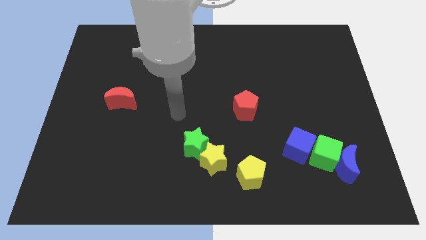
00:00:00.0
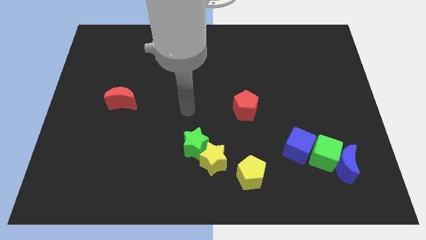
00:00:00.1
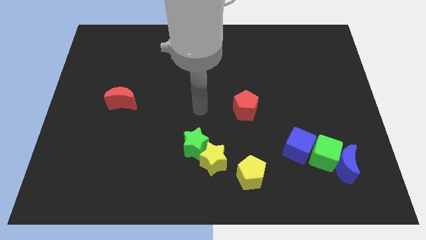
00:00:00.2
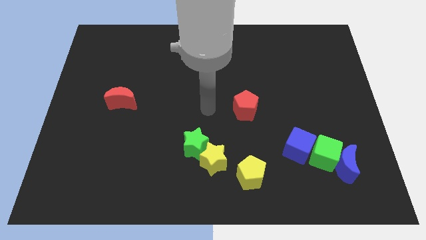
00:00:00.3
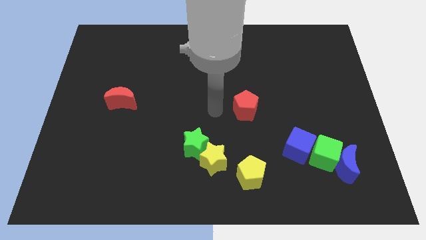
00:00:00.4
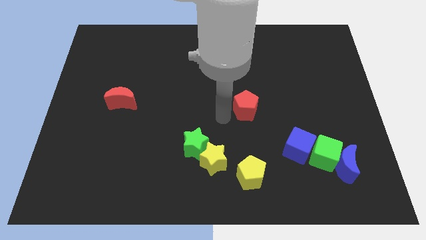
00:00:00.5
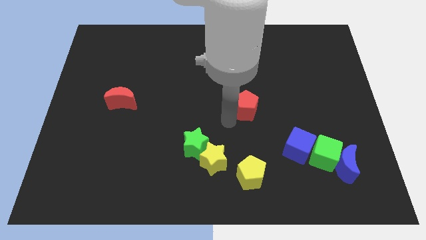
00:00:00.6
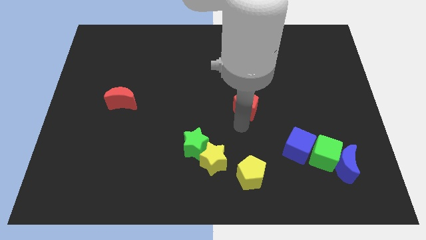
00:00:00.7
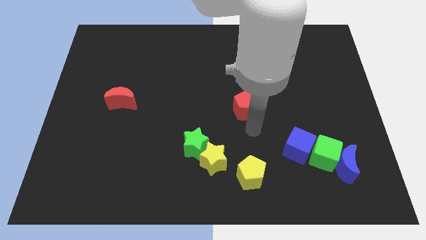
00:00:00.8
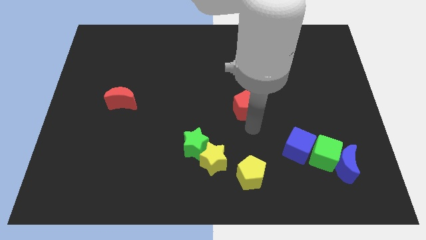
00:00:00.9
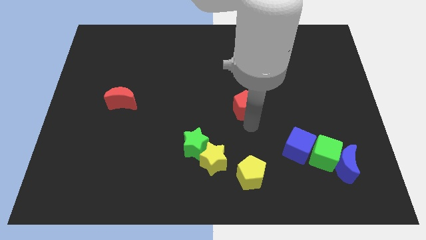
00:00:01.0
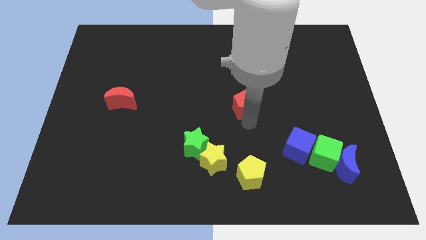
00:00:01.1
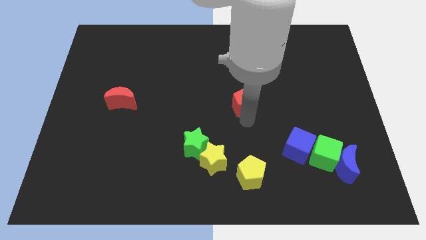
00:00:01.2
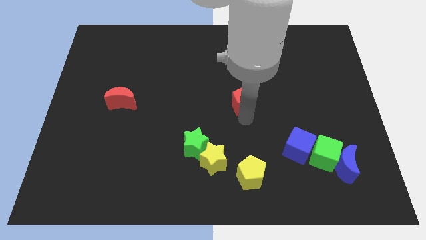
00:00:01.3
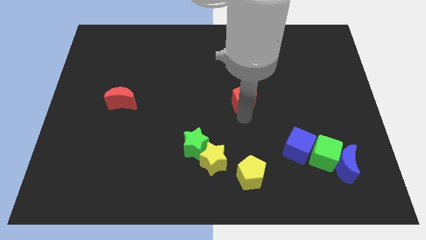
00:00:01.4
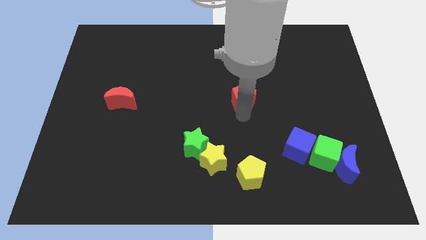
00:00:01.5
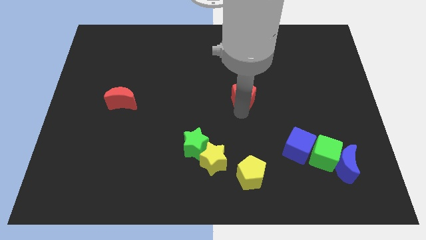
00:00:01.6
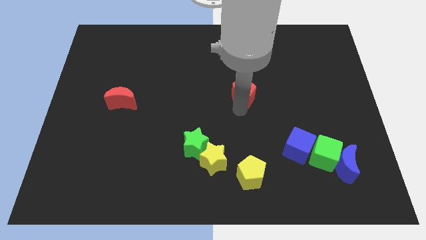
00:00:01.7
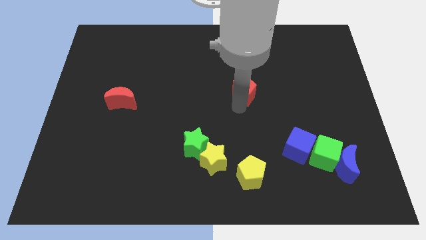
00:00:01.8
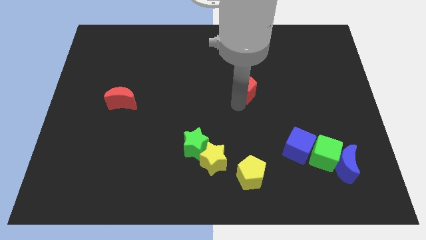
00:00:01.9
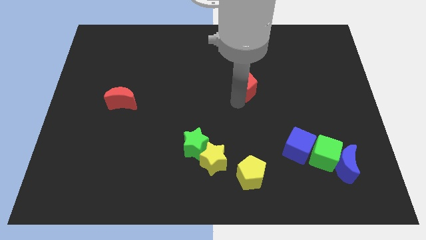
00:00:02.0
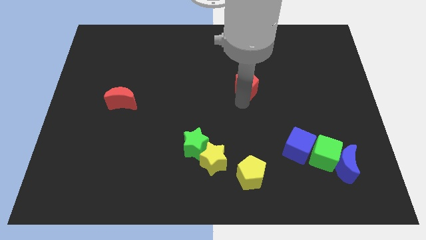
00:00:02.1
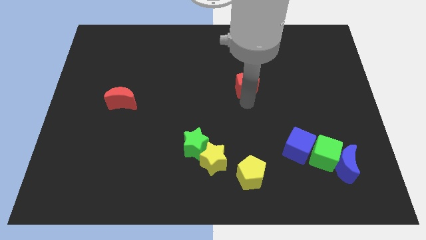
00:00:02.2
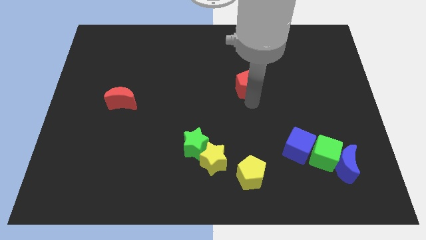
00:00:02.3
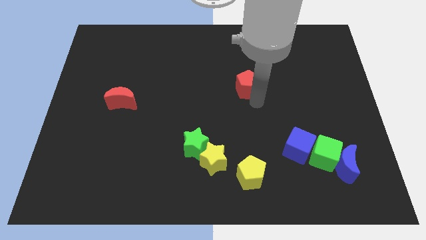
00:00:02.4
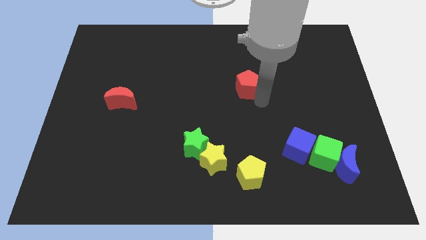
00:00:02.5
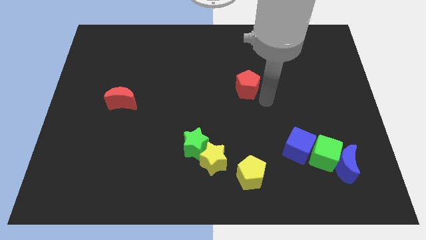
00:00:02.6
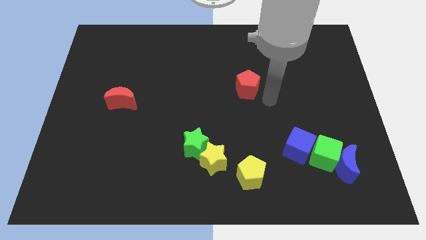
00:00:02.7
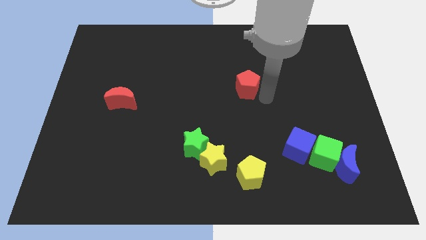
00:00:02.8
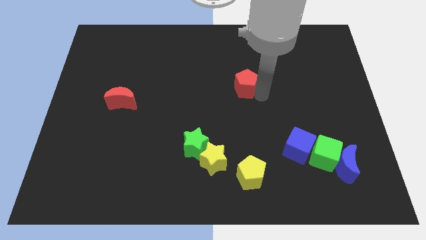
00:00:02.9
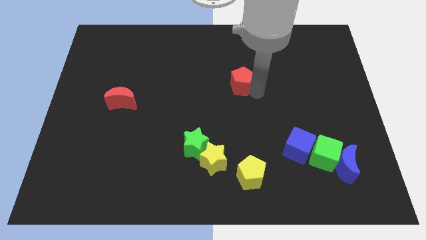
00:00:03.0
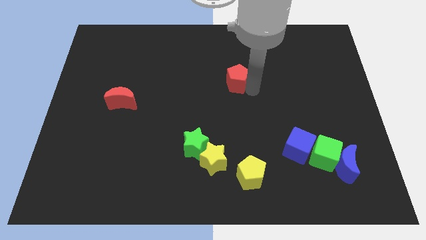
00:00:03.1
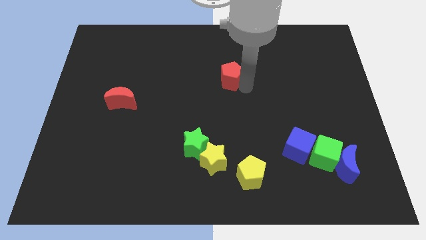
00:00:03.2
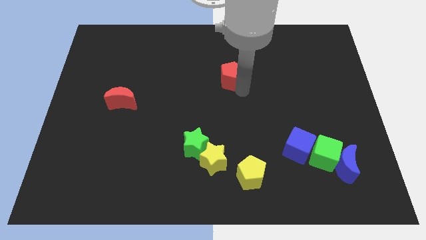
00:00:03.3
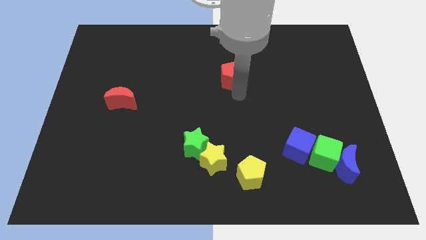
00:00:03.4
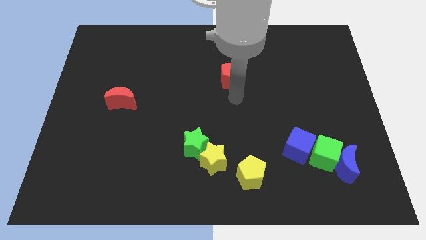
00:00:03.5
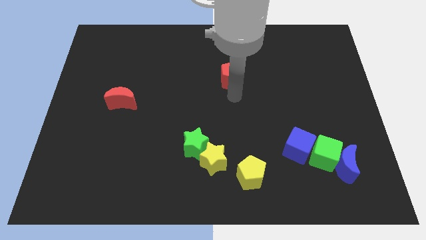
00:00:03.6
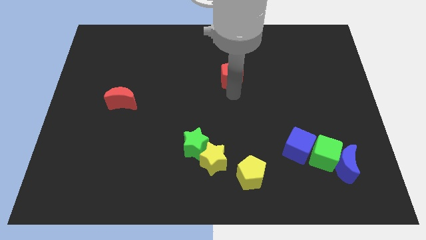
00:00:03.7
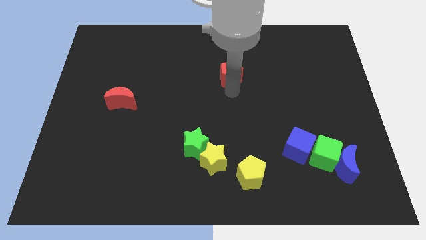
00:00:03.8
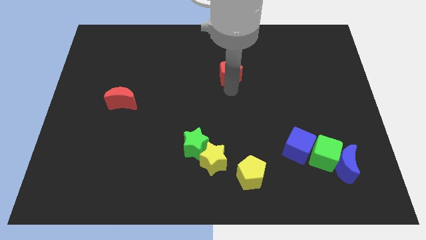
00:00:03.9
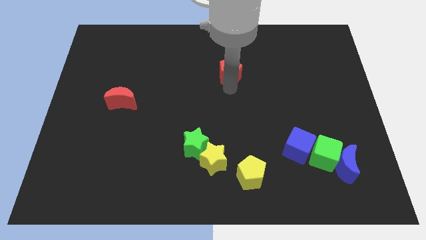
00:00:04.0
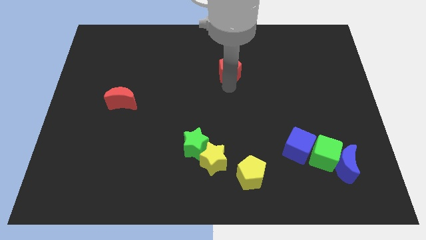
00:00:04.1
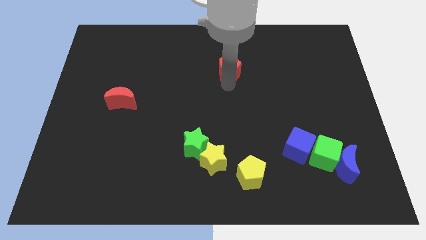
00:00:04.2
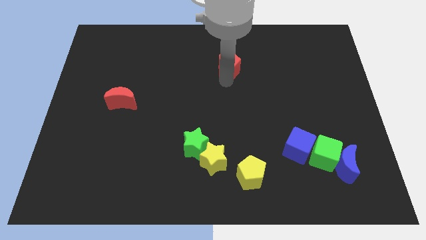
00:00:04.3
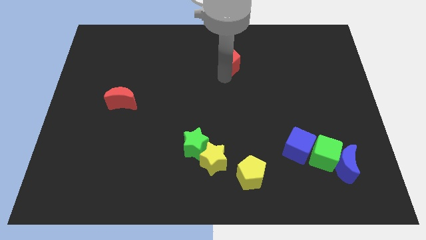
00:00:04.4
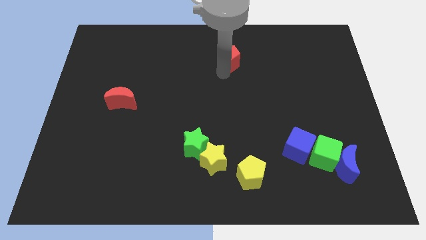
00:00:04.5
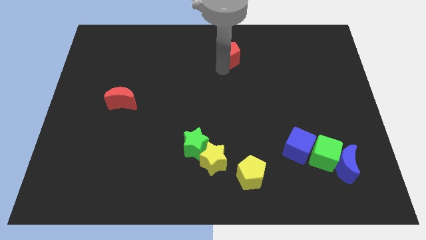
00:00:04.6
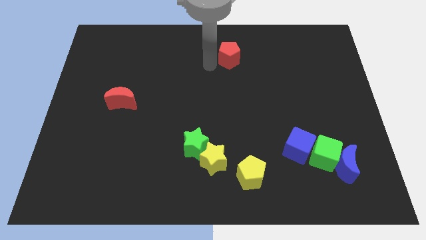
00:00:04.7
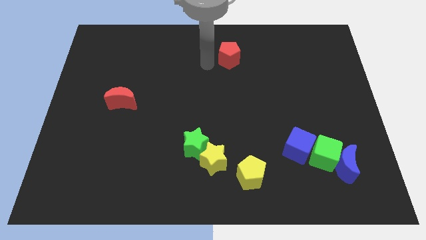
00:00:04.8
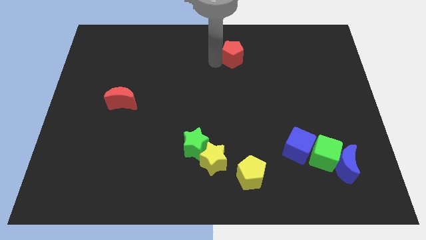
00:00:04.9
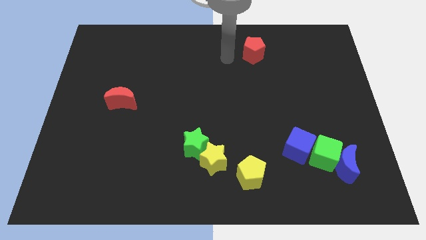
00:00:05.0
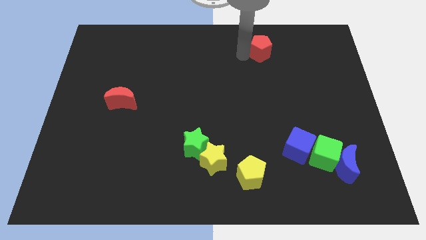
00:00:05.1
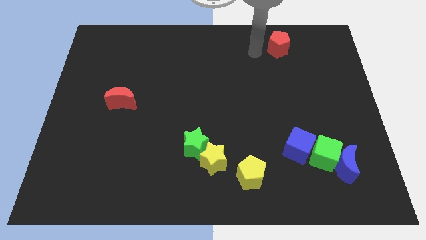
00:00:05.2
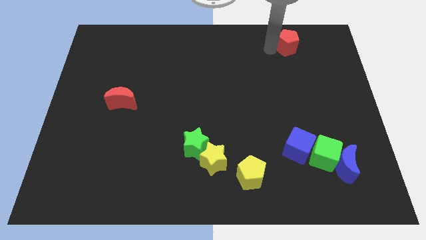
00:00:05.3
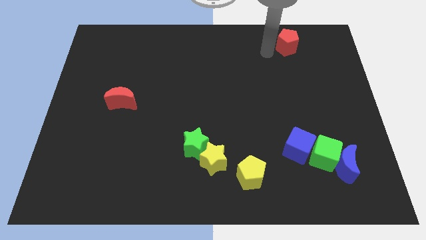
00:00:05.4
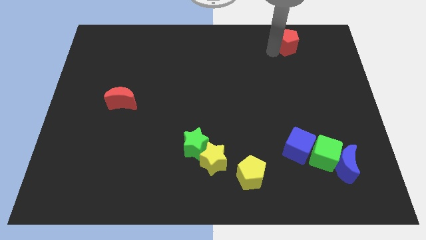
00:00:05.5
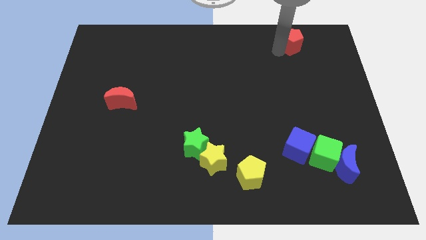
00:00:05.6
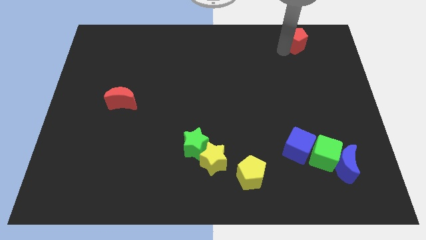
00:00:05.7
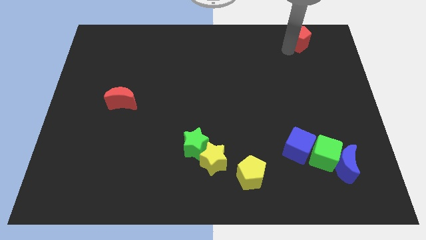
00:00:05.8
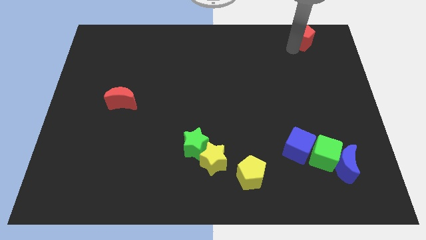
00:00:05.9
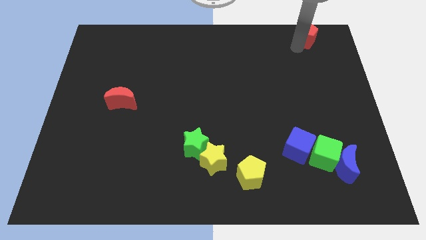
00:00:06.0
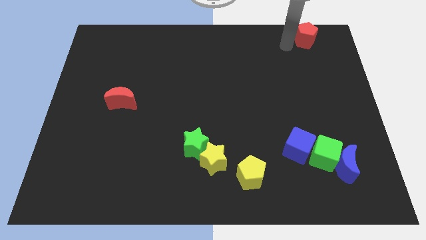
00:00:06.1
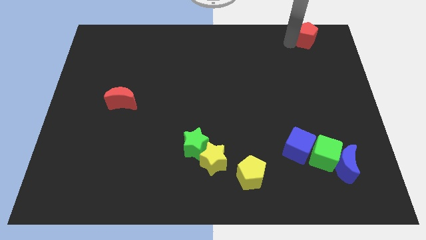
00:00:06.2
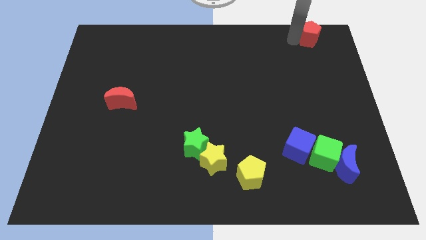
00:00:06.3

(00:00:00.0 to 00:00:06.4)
slide the red pentagon to the top right
